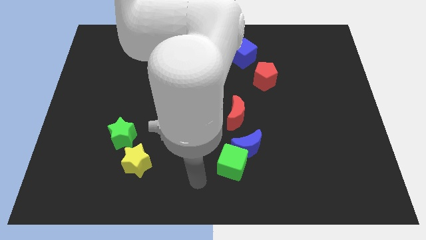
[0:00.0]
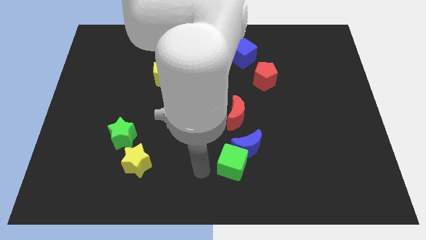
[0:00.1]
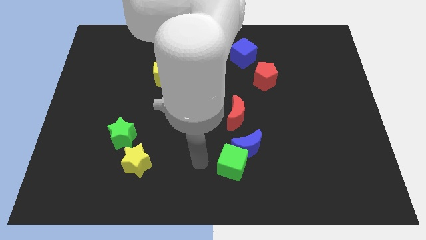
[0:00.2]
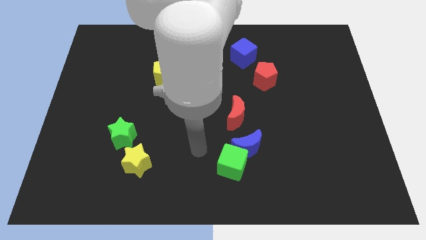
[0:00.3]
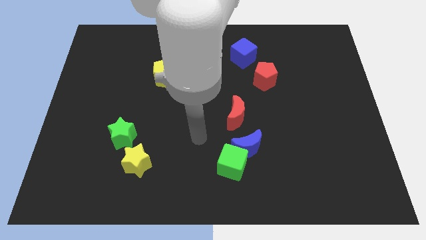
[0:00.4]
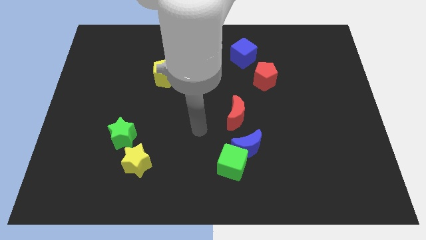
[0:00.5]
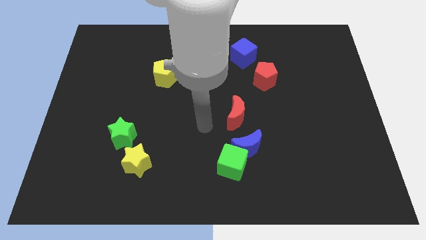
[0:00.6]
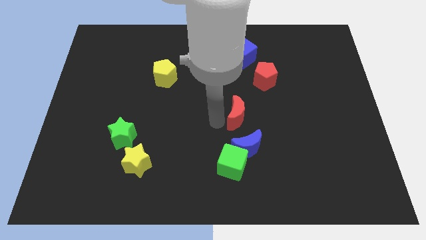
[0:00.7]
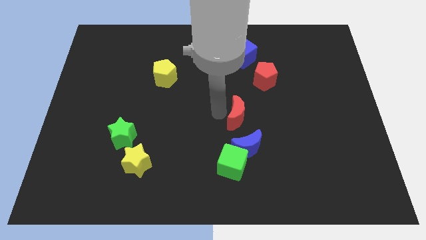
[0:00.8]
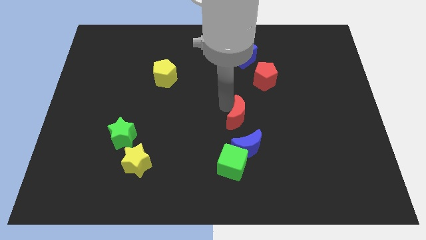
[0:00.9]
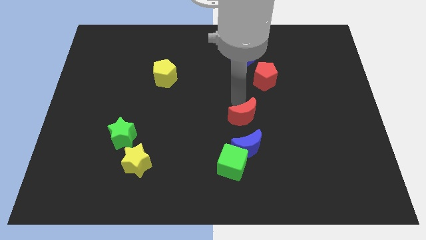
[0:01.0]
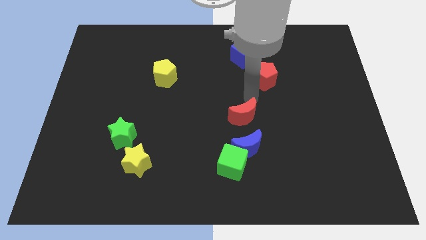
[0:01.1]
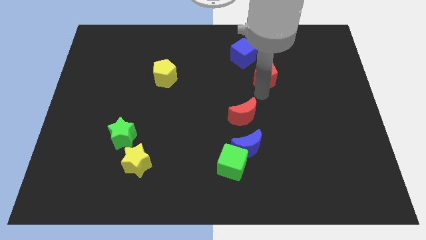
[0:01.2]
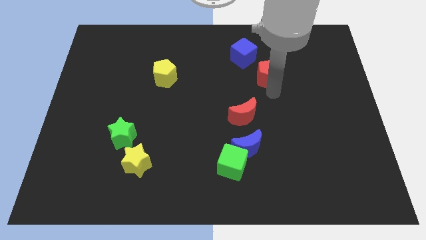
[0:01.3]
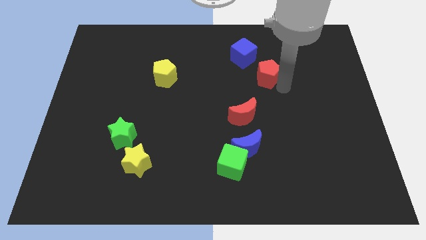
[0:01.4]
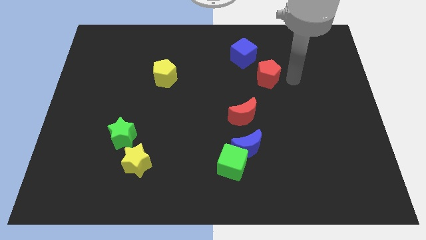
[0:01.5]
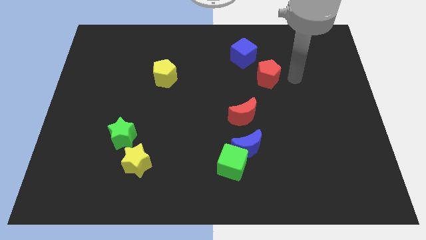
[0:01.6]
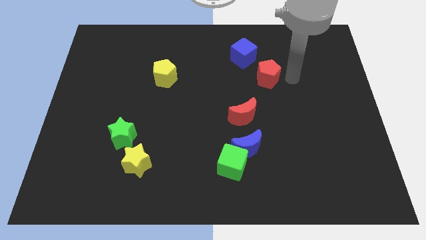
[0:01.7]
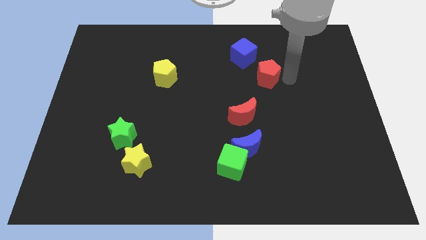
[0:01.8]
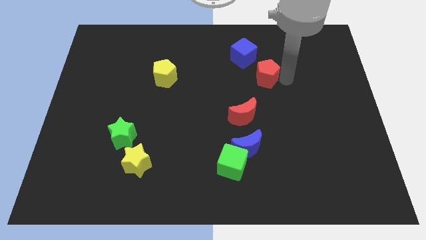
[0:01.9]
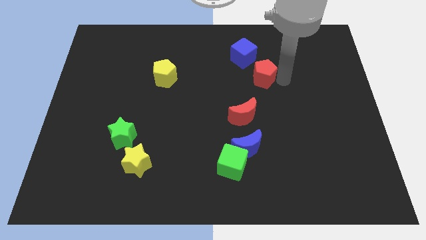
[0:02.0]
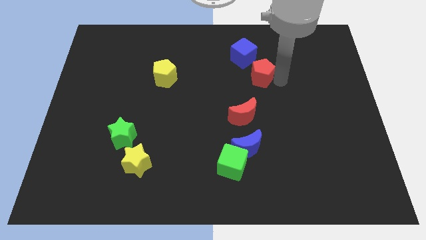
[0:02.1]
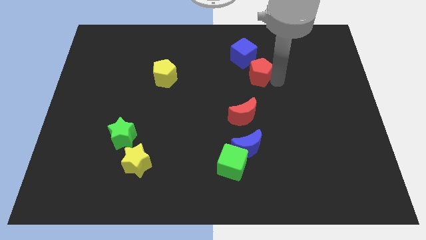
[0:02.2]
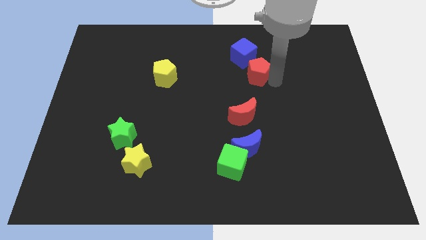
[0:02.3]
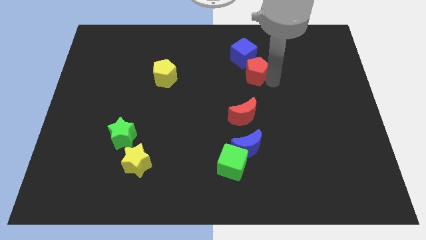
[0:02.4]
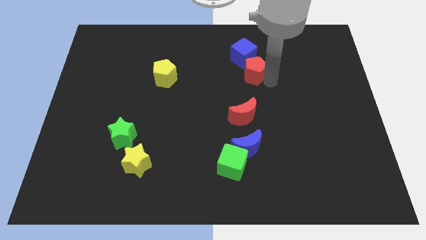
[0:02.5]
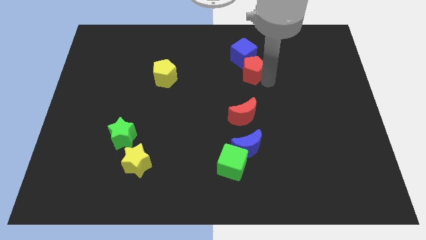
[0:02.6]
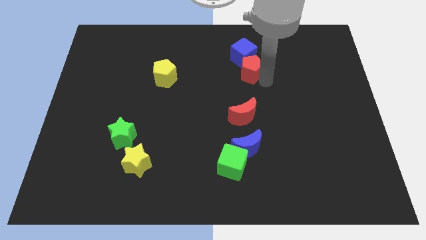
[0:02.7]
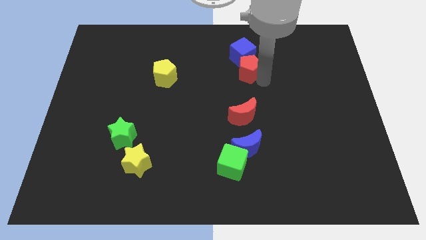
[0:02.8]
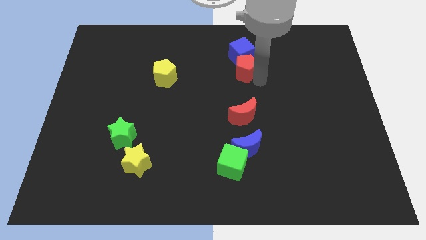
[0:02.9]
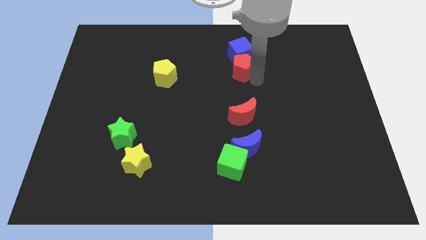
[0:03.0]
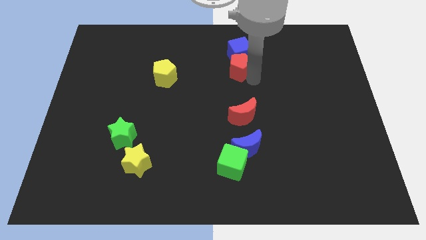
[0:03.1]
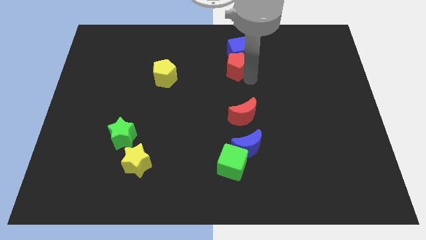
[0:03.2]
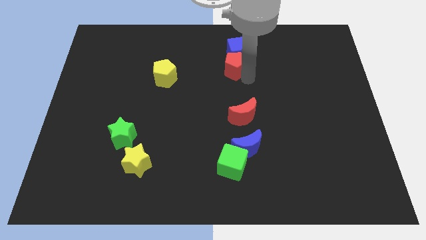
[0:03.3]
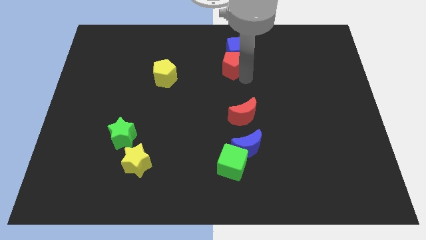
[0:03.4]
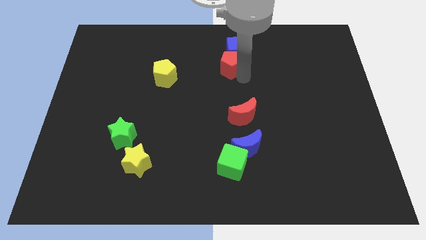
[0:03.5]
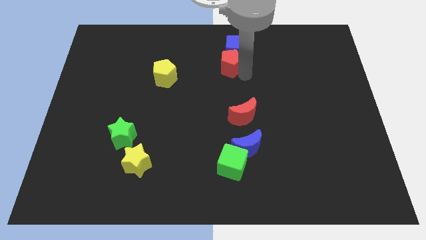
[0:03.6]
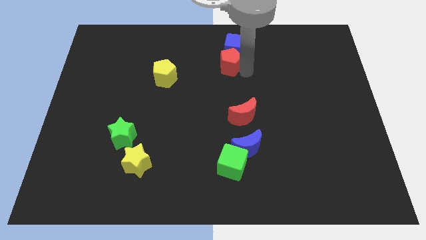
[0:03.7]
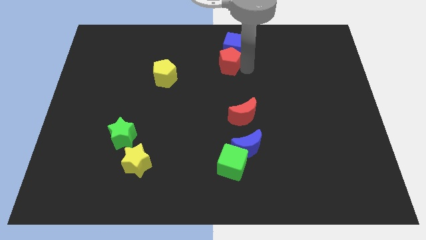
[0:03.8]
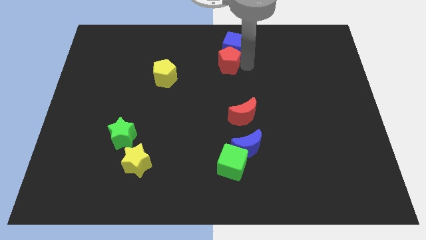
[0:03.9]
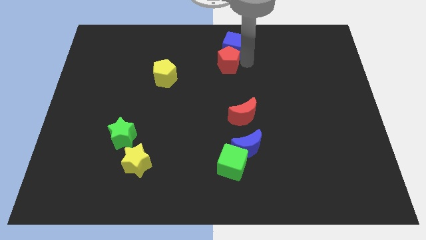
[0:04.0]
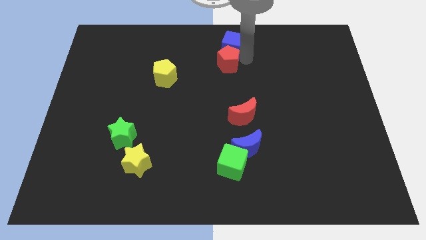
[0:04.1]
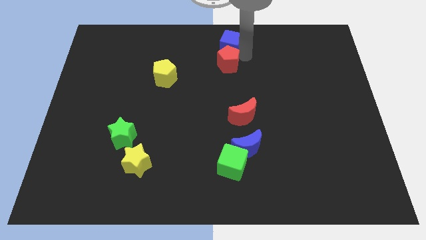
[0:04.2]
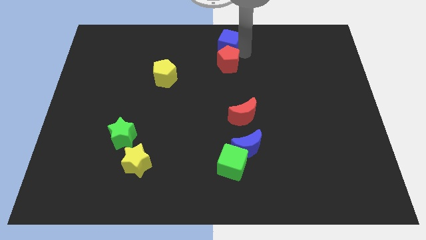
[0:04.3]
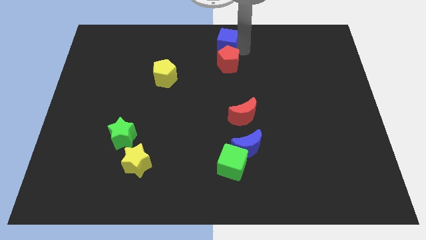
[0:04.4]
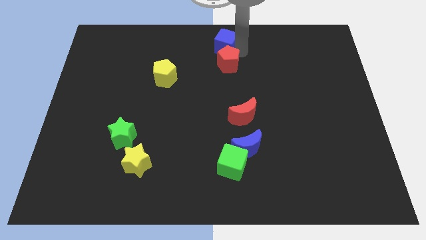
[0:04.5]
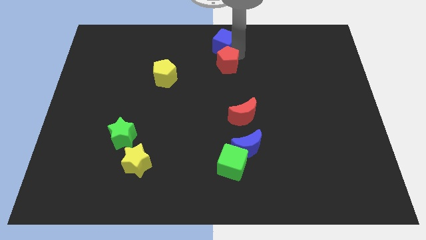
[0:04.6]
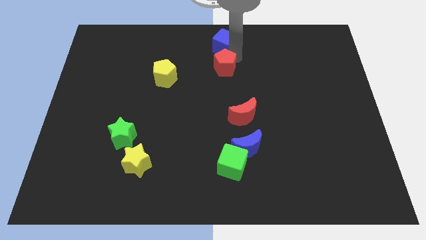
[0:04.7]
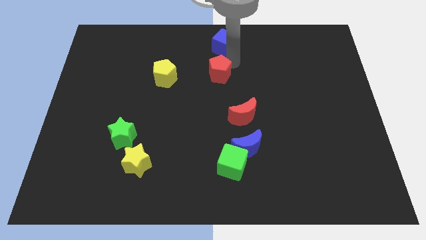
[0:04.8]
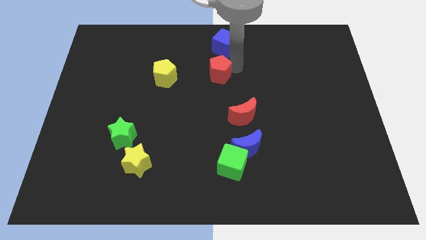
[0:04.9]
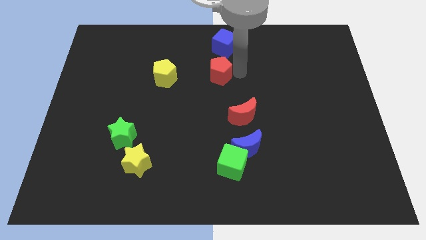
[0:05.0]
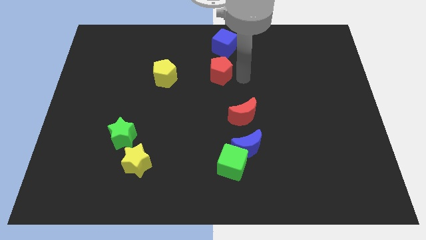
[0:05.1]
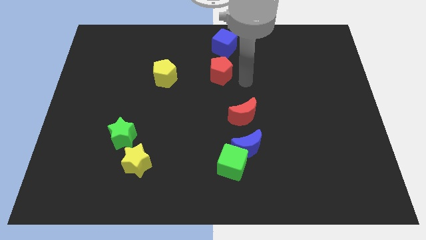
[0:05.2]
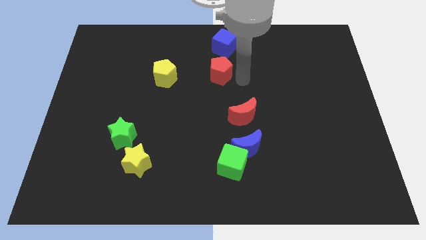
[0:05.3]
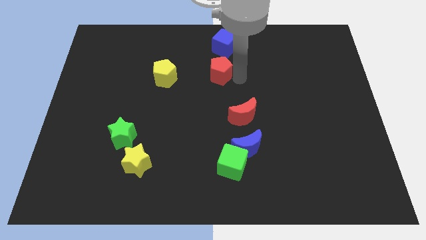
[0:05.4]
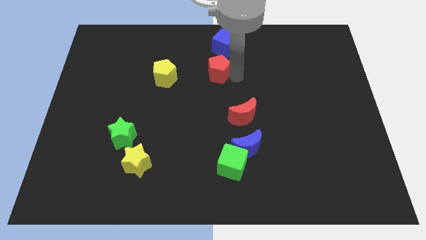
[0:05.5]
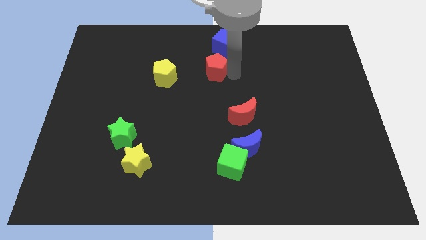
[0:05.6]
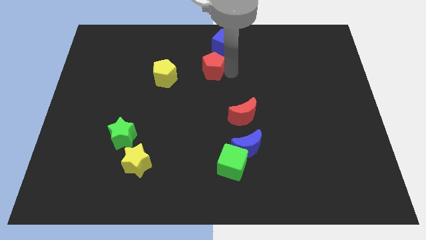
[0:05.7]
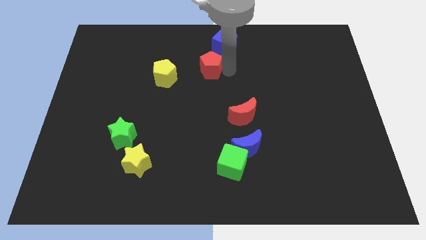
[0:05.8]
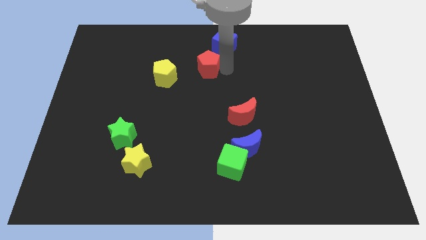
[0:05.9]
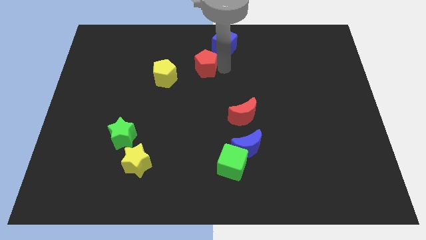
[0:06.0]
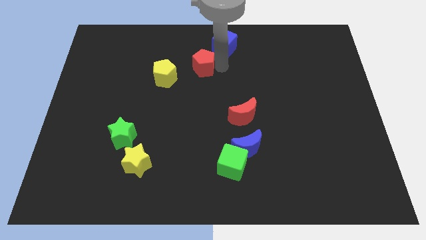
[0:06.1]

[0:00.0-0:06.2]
move the red pentagon to the top right of the yellow pentagon

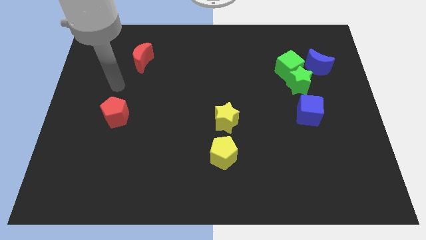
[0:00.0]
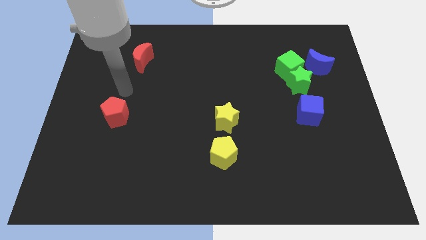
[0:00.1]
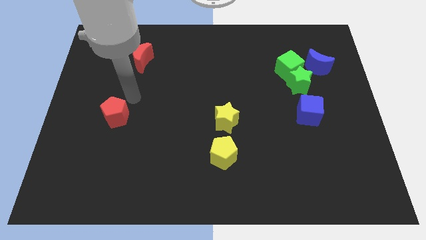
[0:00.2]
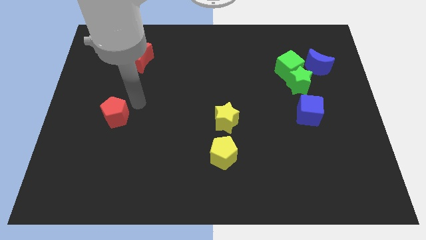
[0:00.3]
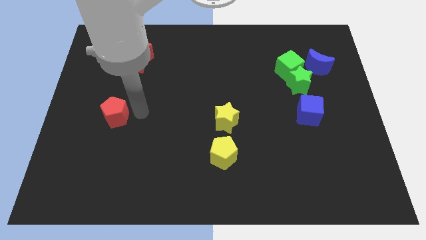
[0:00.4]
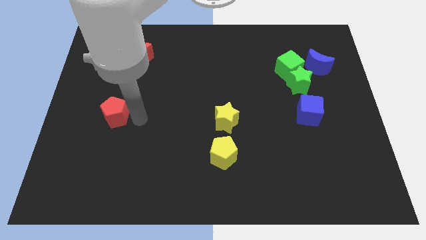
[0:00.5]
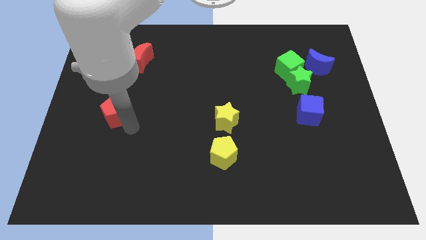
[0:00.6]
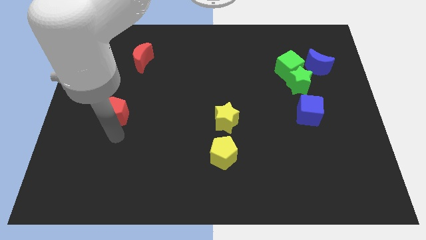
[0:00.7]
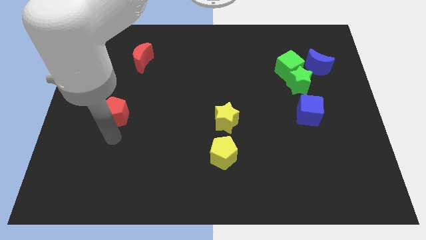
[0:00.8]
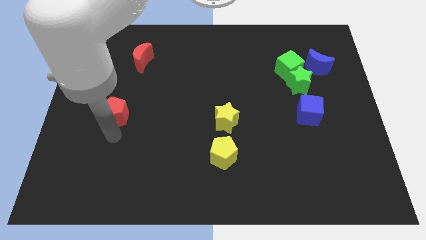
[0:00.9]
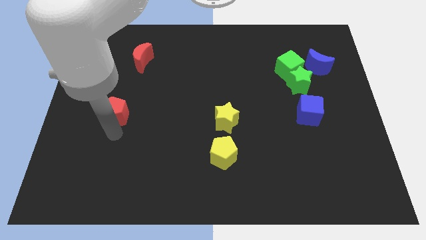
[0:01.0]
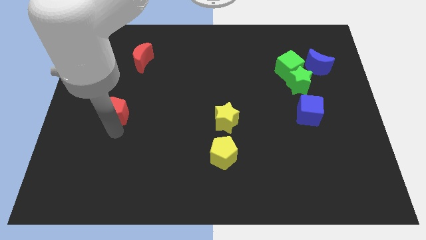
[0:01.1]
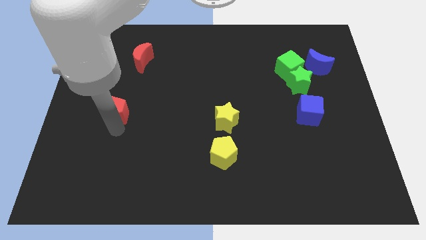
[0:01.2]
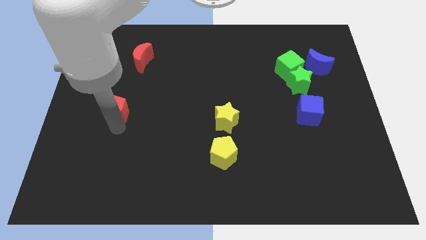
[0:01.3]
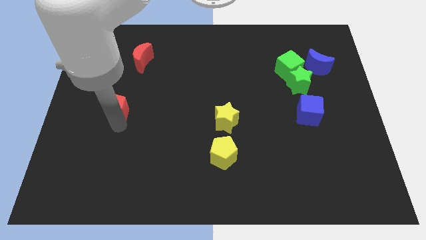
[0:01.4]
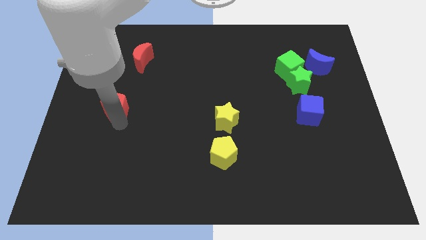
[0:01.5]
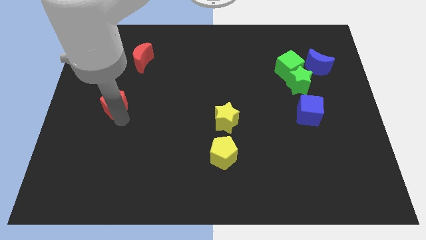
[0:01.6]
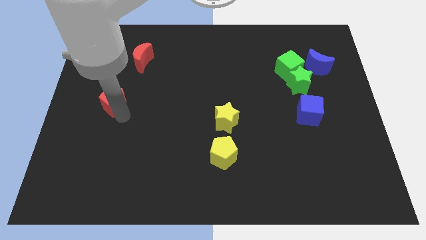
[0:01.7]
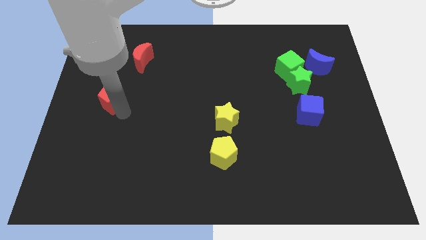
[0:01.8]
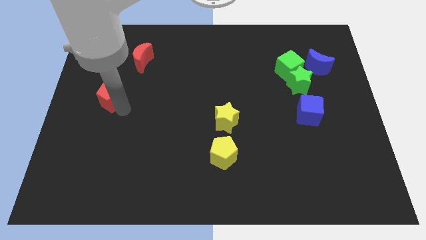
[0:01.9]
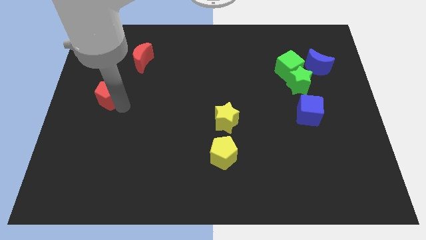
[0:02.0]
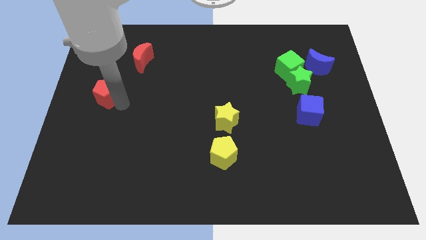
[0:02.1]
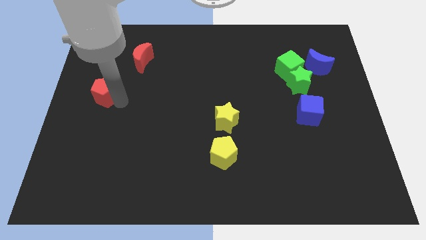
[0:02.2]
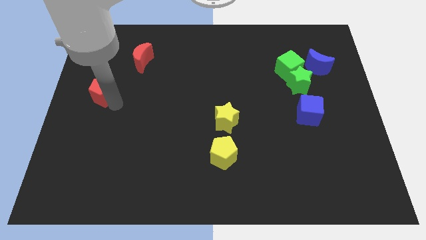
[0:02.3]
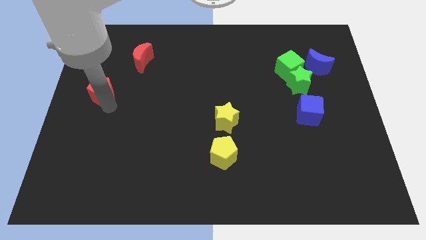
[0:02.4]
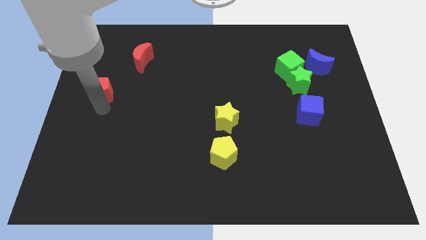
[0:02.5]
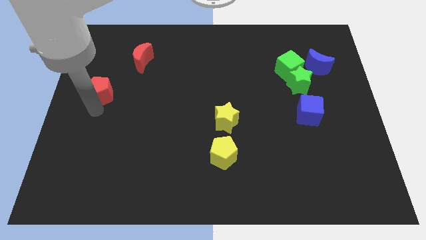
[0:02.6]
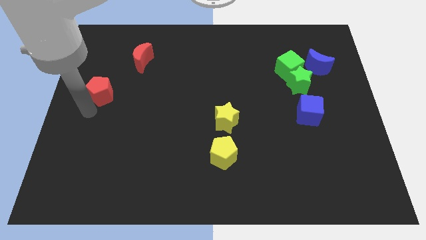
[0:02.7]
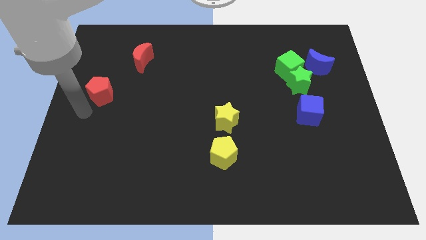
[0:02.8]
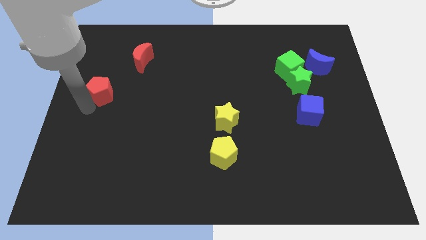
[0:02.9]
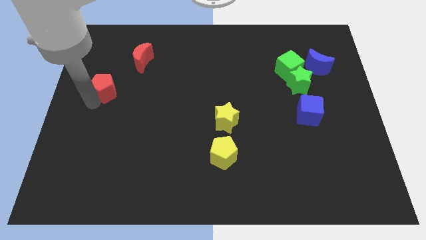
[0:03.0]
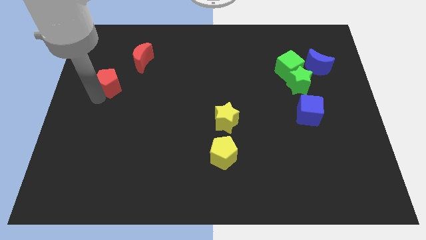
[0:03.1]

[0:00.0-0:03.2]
slide the red pentagon diagonally down and to the left of the red moon
